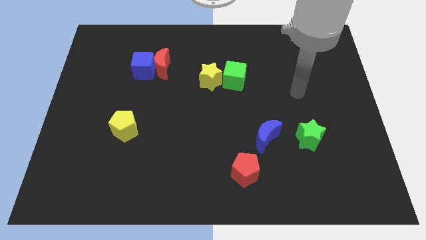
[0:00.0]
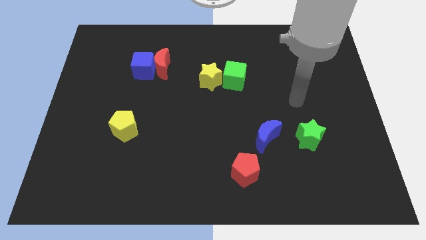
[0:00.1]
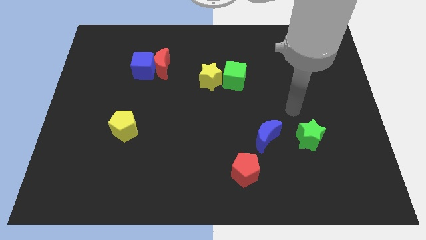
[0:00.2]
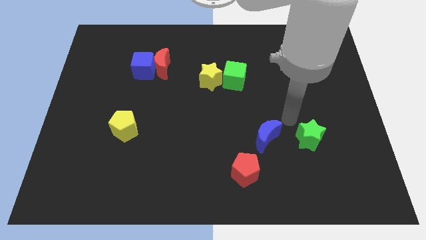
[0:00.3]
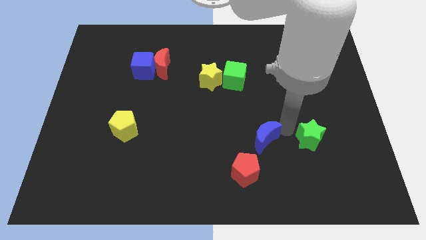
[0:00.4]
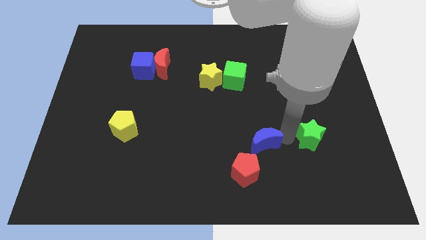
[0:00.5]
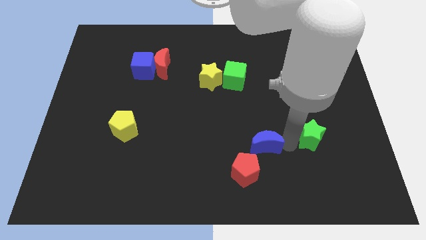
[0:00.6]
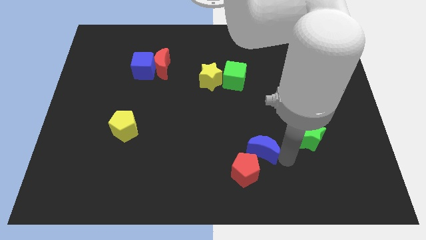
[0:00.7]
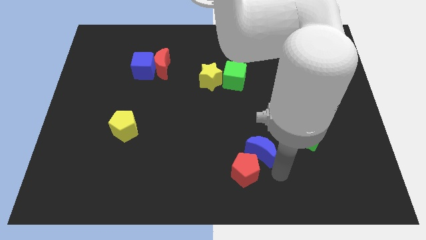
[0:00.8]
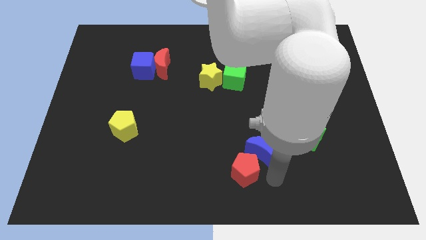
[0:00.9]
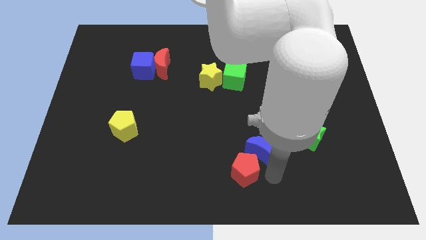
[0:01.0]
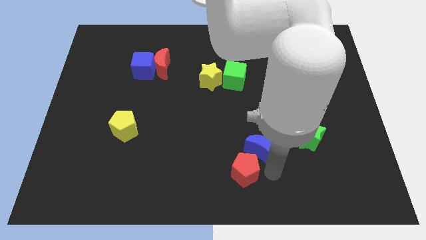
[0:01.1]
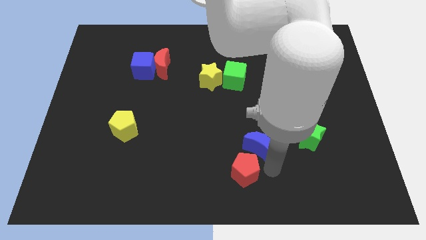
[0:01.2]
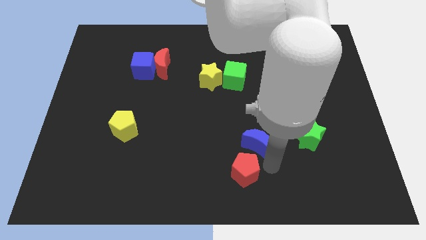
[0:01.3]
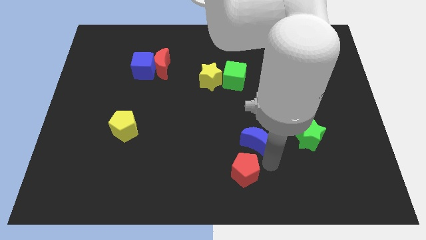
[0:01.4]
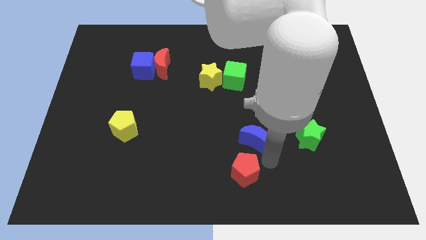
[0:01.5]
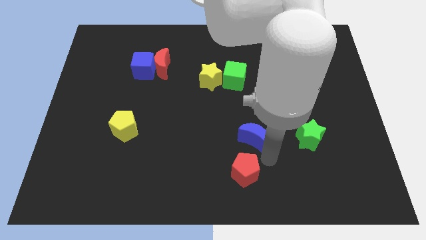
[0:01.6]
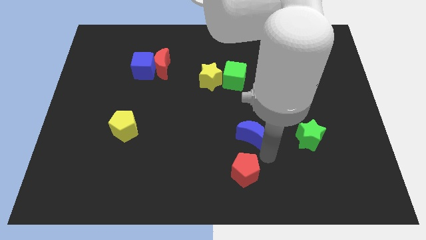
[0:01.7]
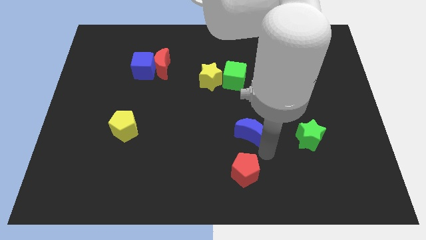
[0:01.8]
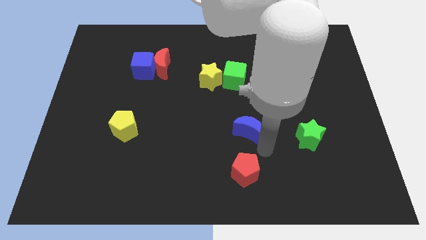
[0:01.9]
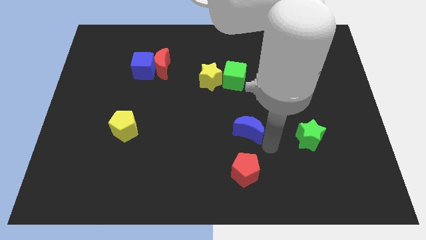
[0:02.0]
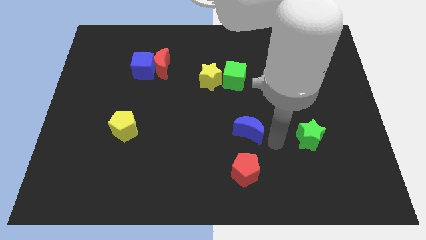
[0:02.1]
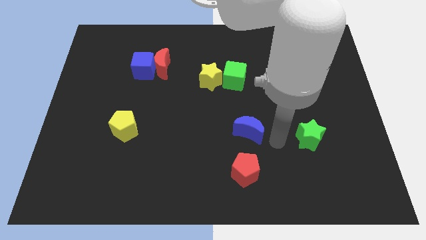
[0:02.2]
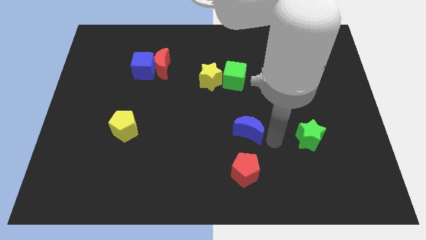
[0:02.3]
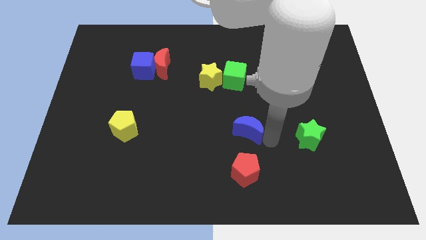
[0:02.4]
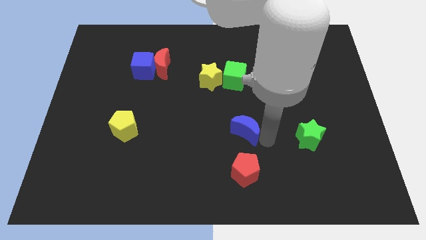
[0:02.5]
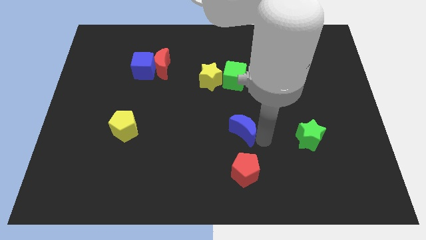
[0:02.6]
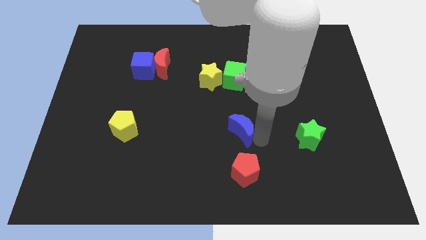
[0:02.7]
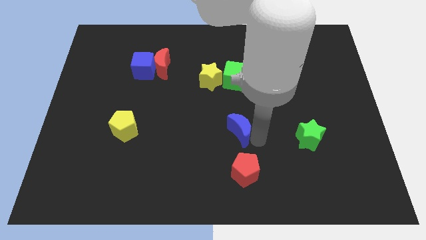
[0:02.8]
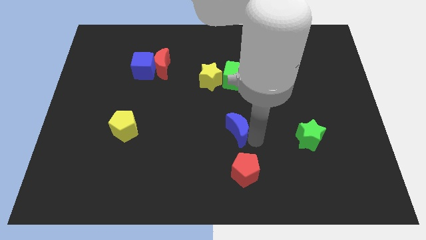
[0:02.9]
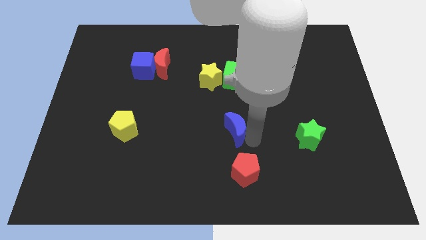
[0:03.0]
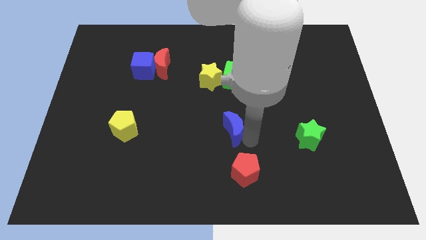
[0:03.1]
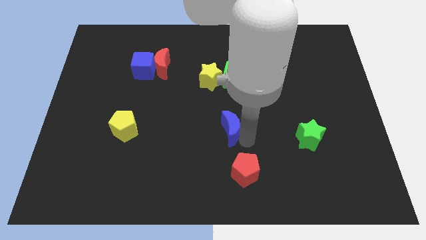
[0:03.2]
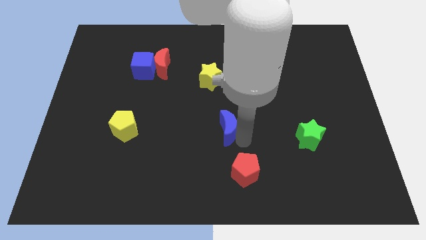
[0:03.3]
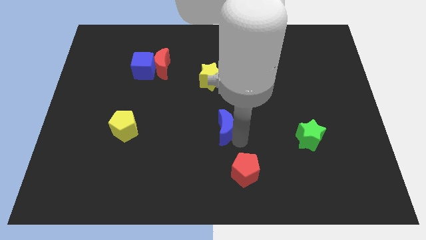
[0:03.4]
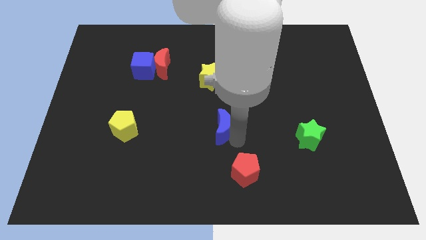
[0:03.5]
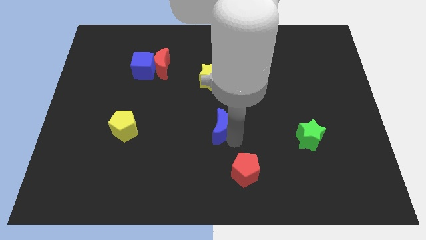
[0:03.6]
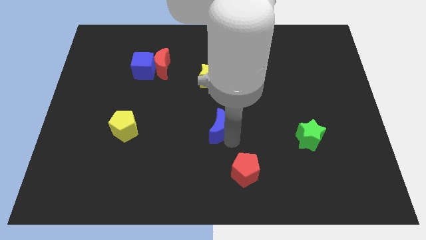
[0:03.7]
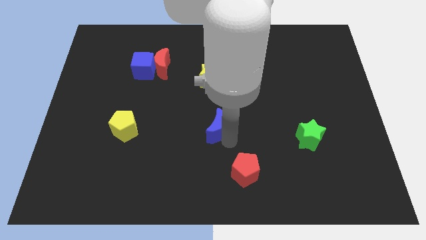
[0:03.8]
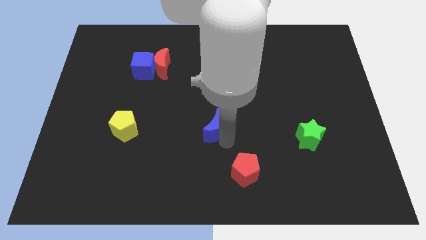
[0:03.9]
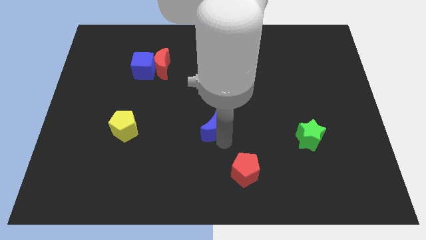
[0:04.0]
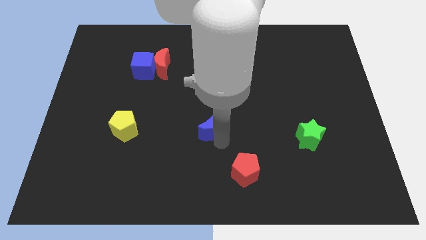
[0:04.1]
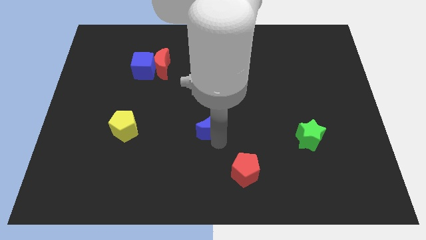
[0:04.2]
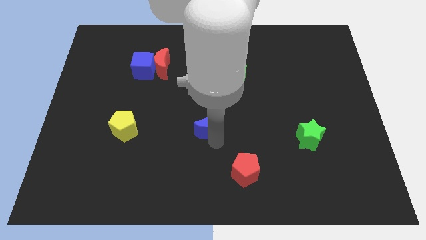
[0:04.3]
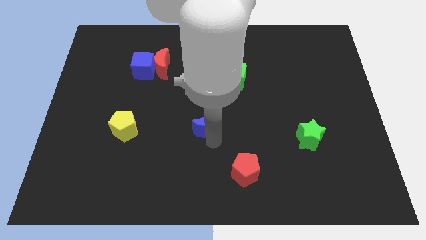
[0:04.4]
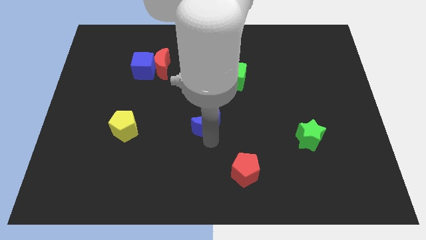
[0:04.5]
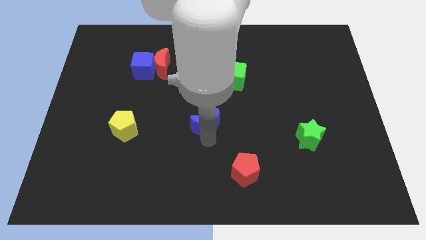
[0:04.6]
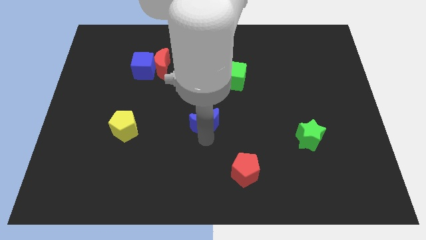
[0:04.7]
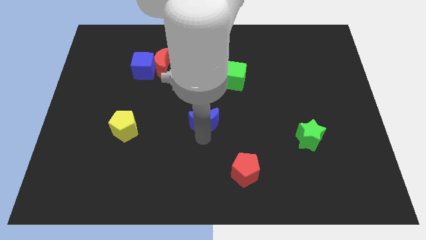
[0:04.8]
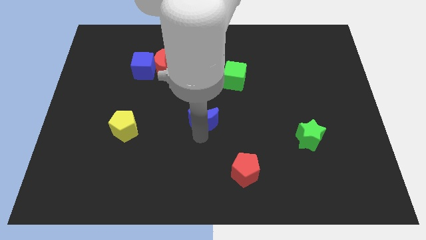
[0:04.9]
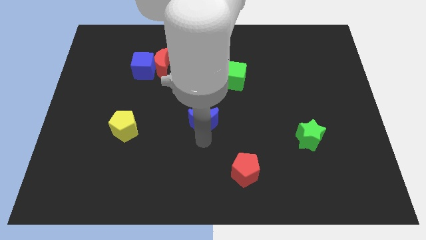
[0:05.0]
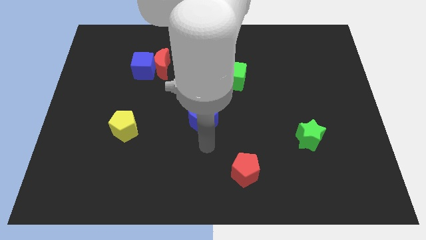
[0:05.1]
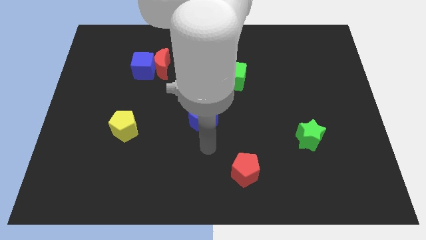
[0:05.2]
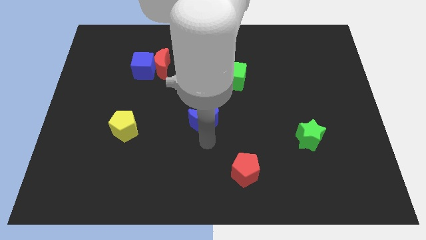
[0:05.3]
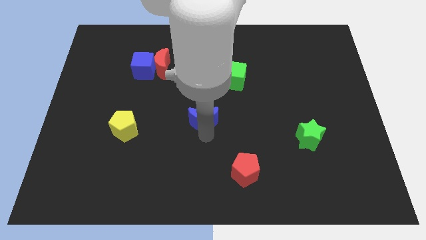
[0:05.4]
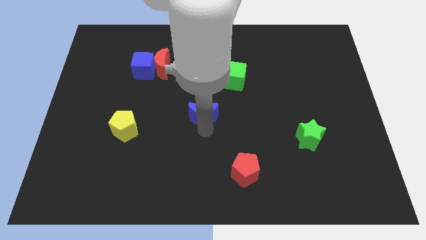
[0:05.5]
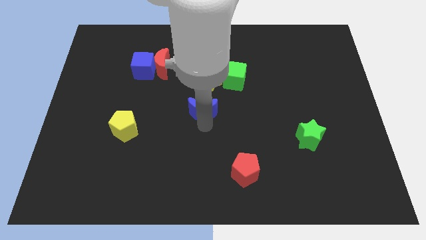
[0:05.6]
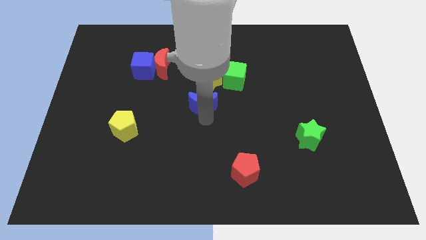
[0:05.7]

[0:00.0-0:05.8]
move the blue moon diagonally down and to the left of the yellow star

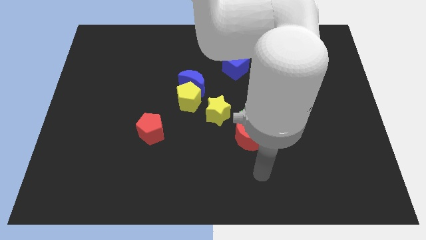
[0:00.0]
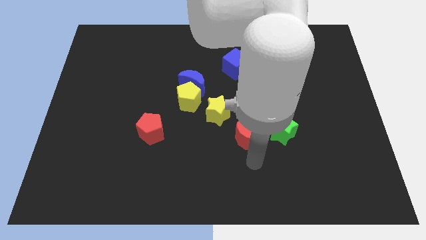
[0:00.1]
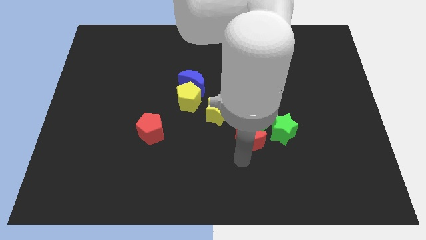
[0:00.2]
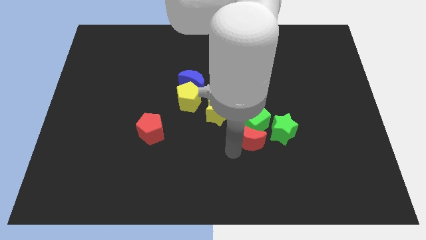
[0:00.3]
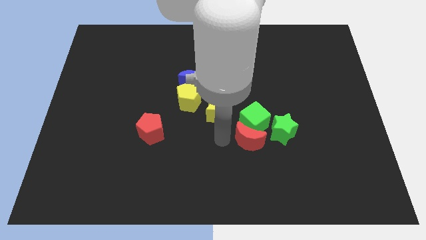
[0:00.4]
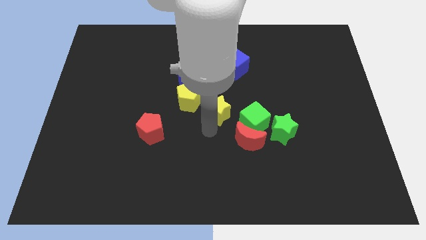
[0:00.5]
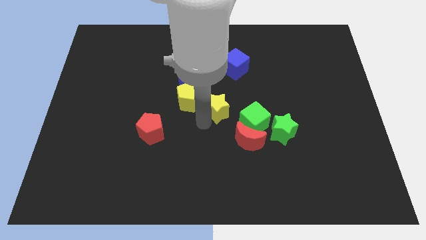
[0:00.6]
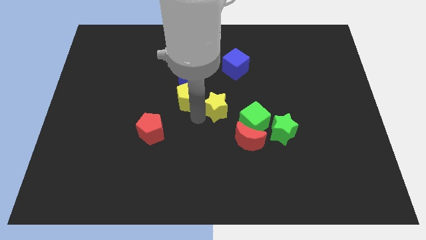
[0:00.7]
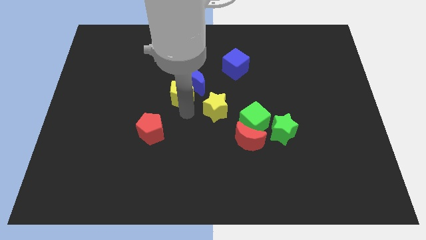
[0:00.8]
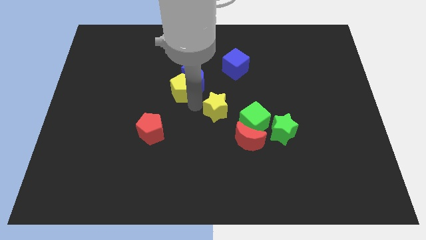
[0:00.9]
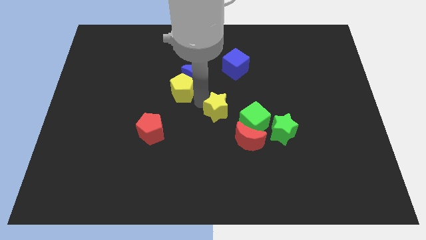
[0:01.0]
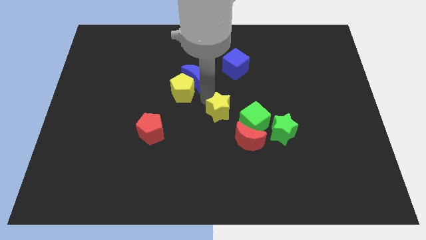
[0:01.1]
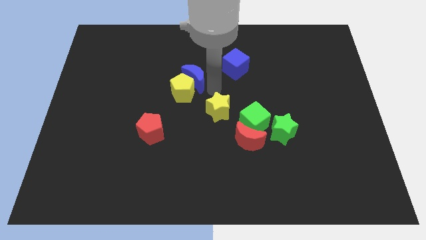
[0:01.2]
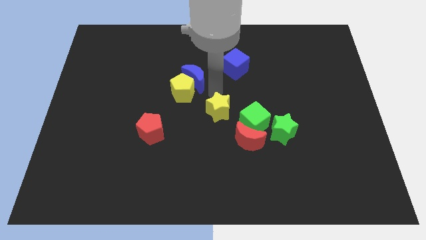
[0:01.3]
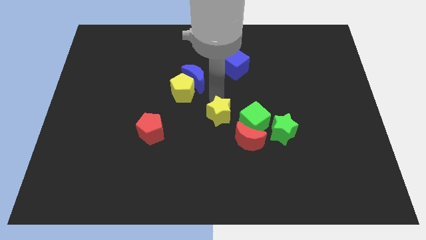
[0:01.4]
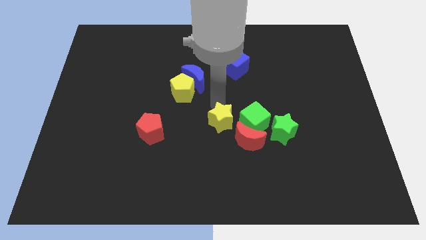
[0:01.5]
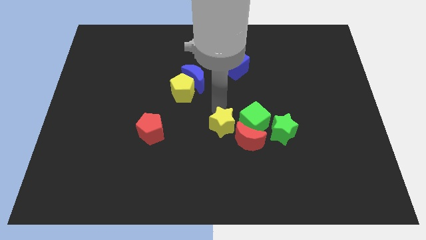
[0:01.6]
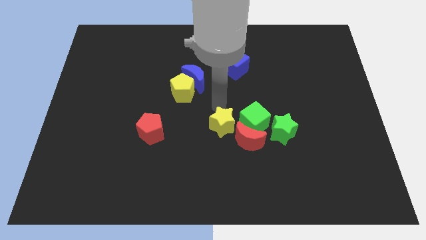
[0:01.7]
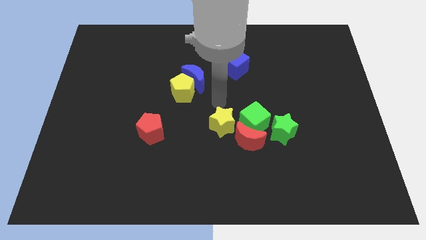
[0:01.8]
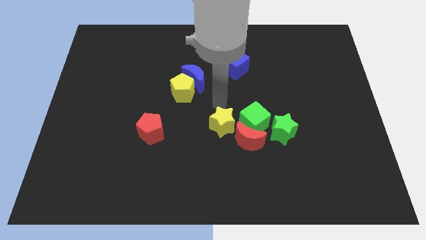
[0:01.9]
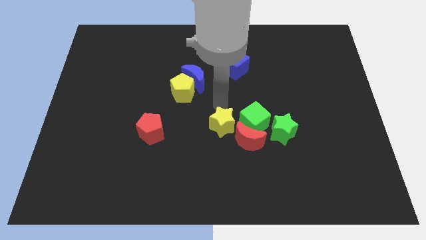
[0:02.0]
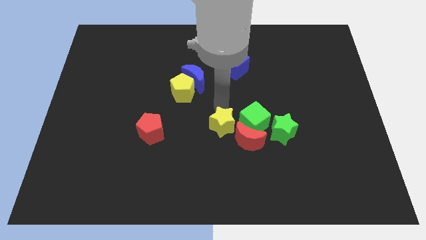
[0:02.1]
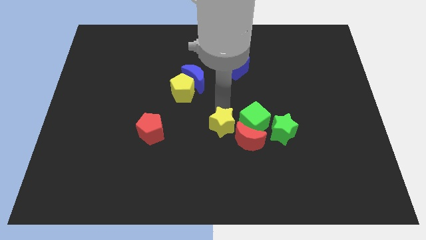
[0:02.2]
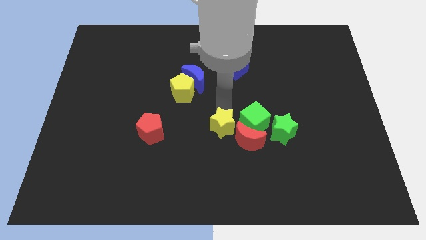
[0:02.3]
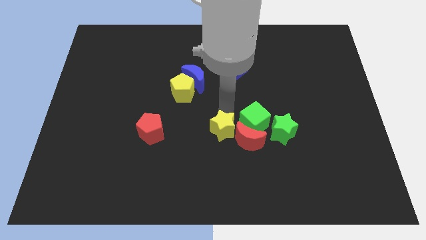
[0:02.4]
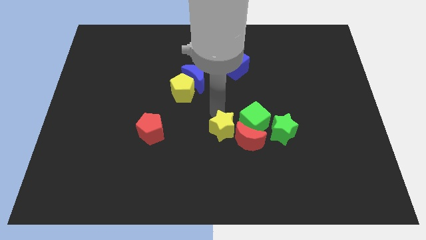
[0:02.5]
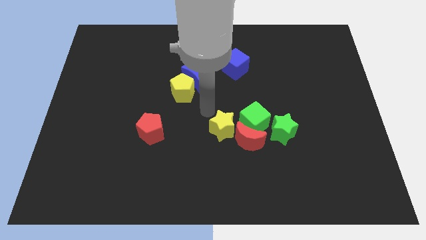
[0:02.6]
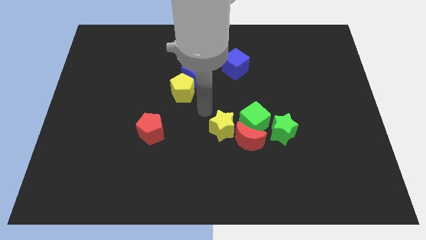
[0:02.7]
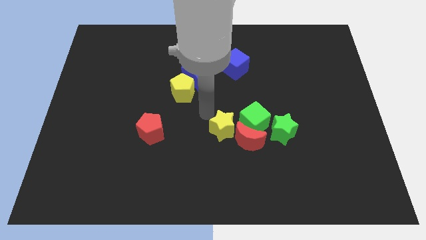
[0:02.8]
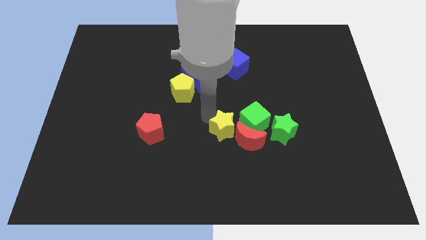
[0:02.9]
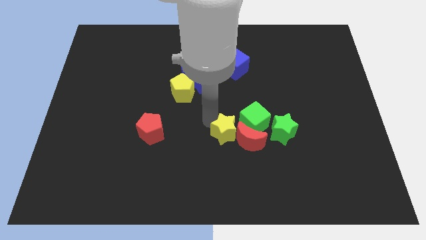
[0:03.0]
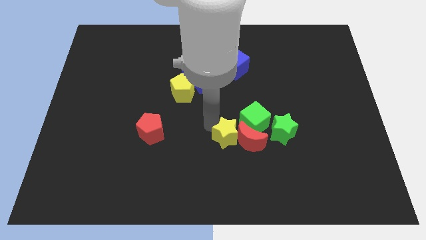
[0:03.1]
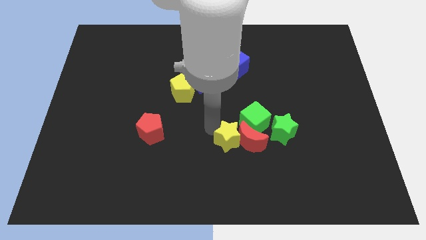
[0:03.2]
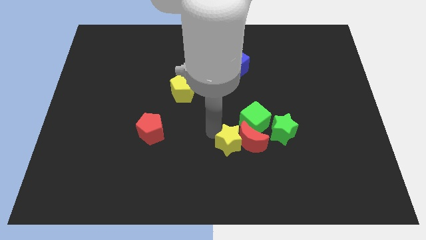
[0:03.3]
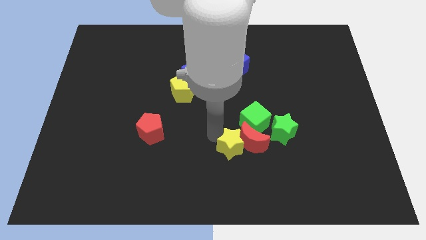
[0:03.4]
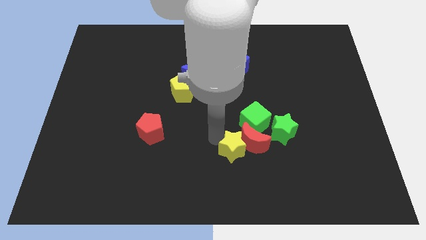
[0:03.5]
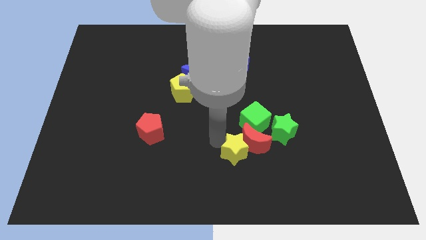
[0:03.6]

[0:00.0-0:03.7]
move the yellow star below the green cube
